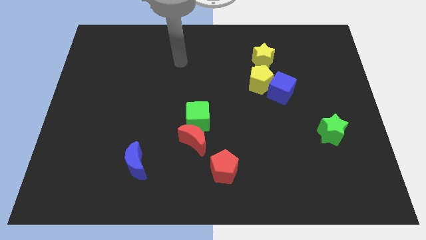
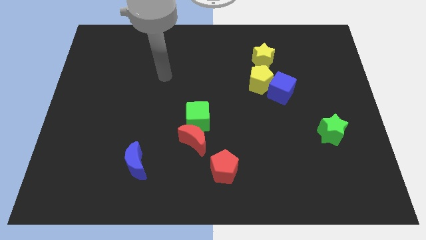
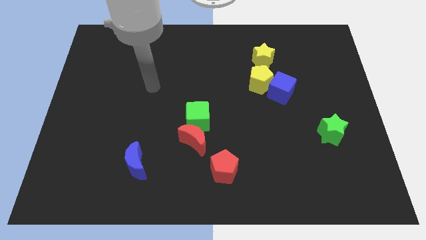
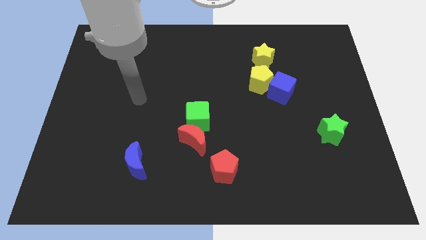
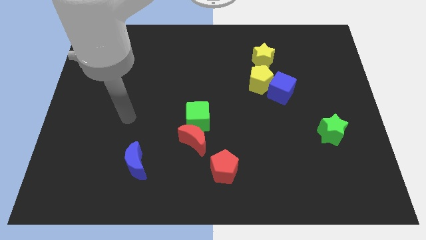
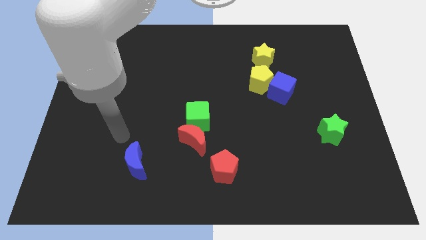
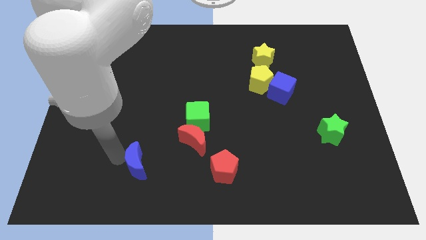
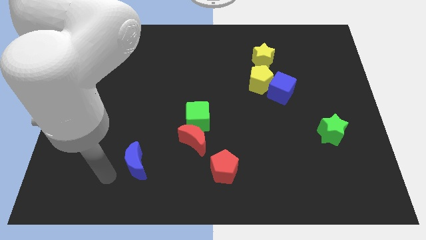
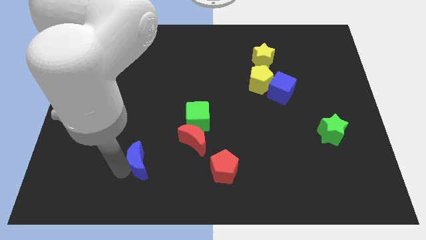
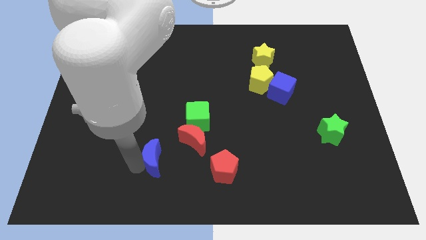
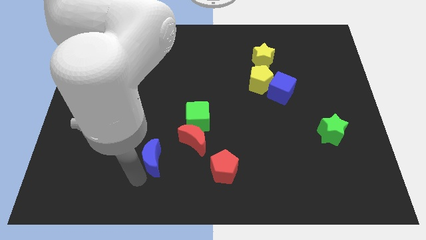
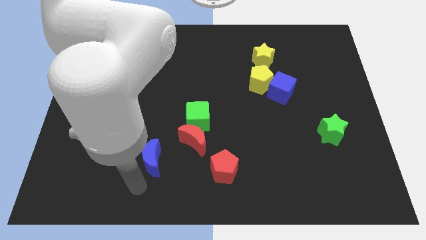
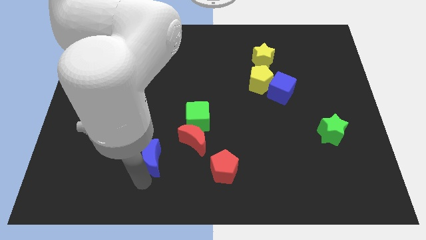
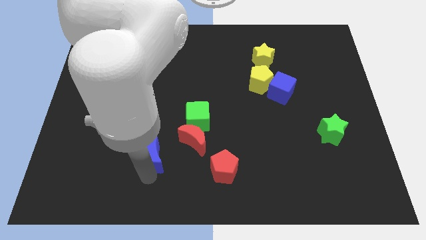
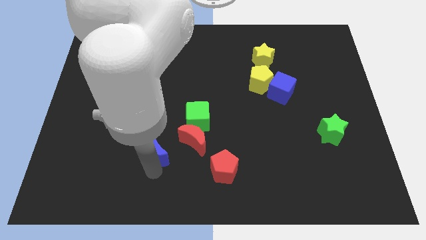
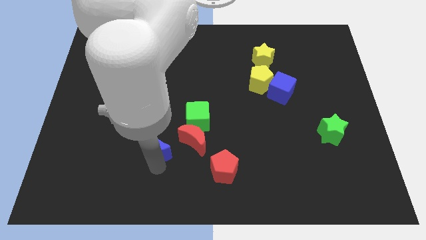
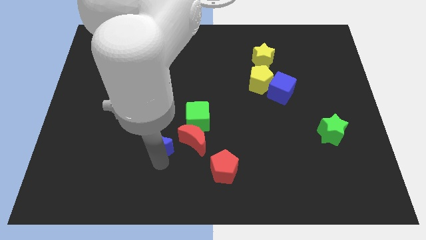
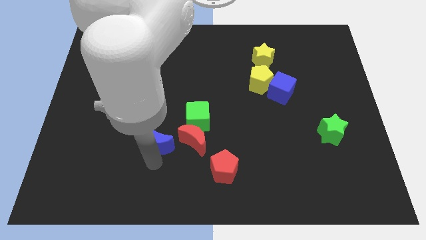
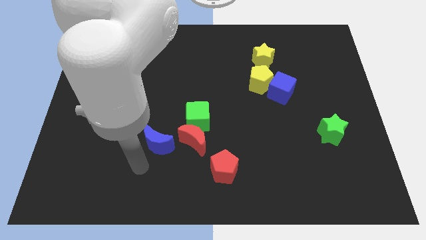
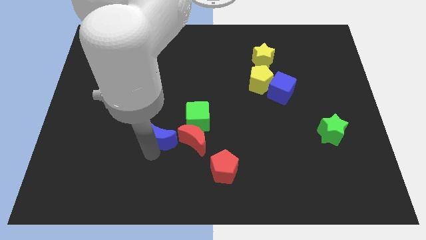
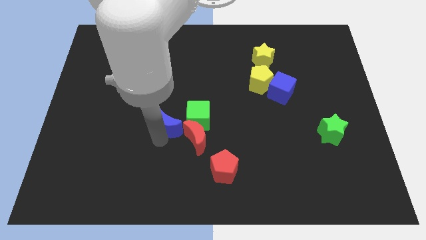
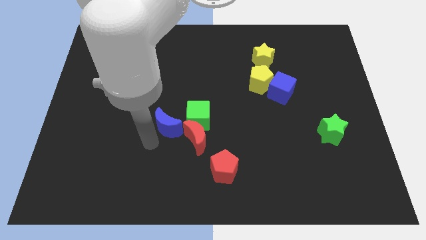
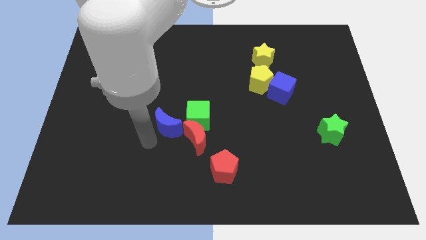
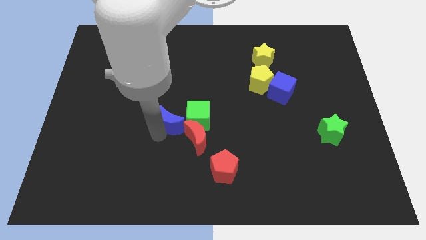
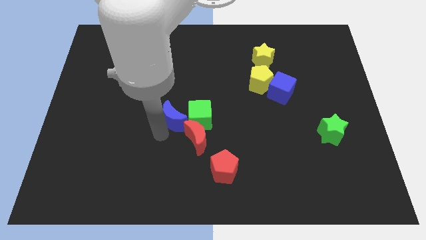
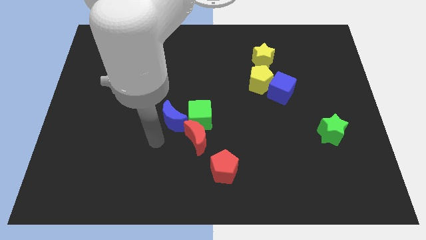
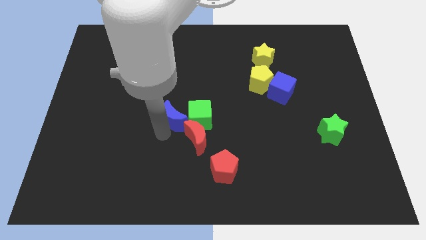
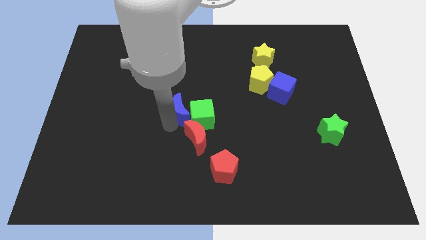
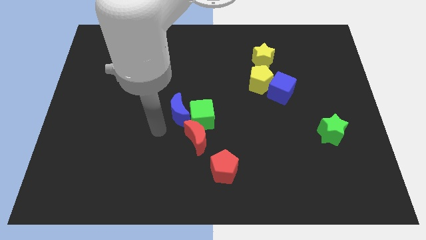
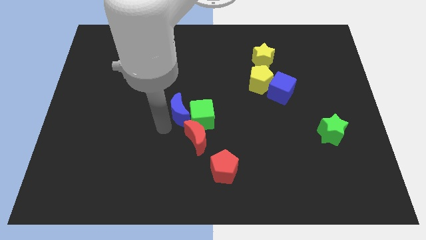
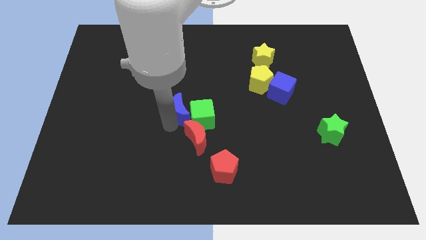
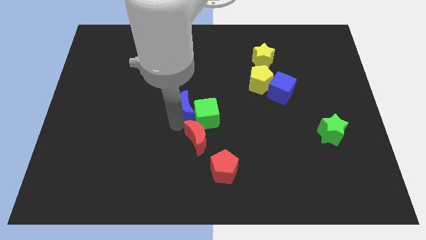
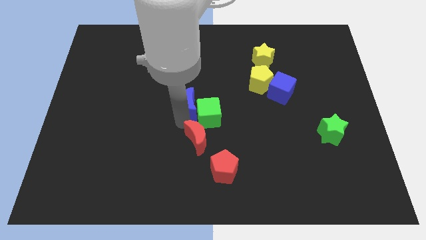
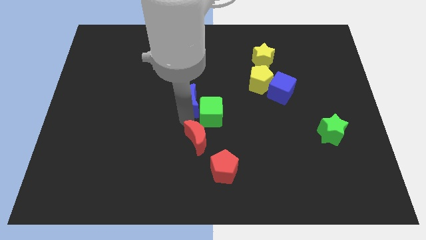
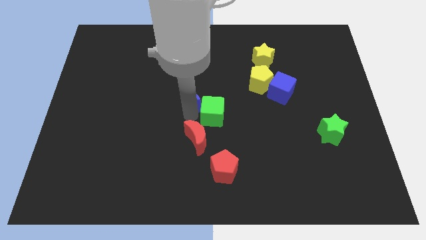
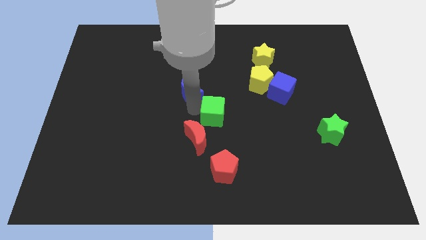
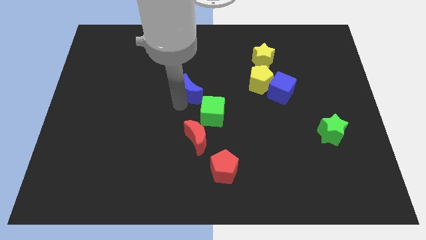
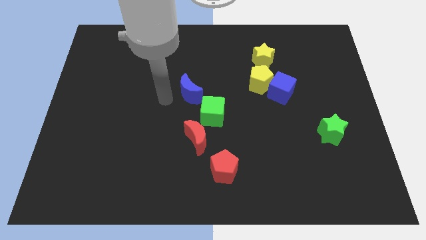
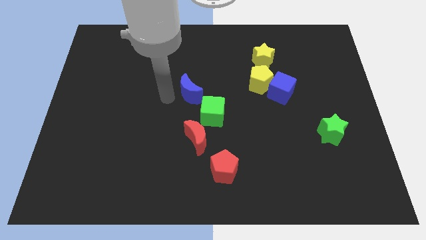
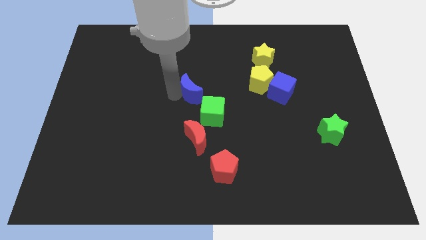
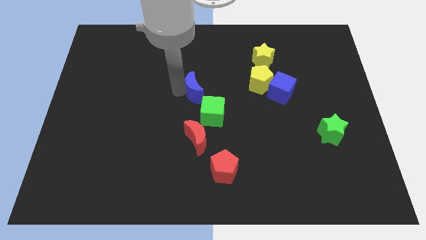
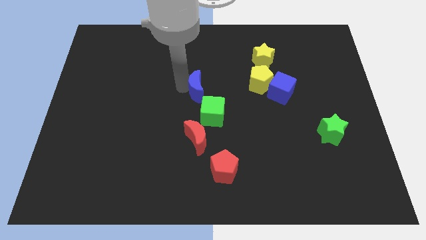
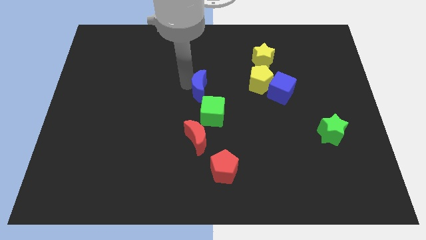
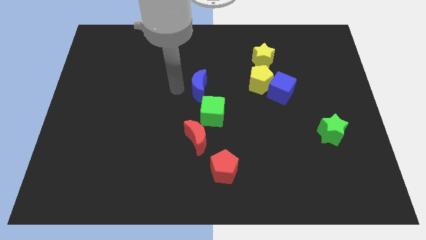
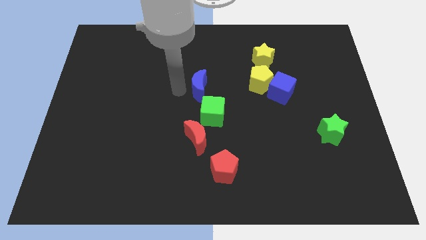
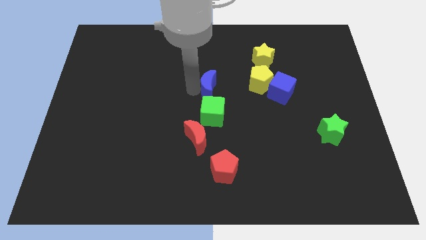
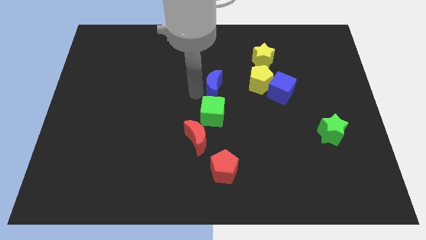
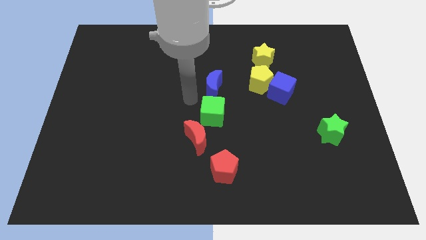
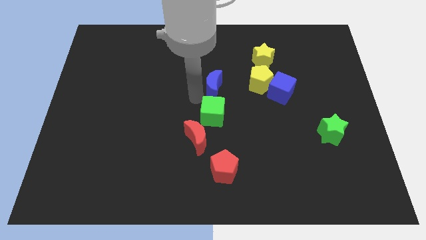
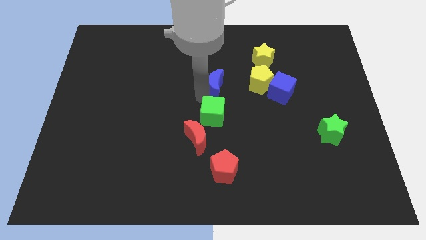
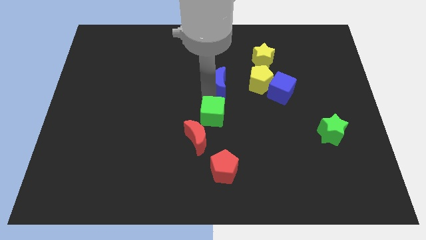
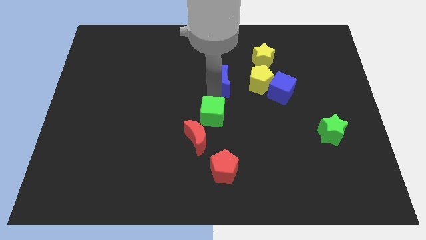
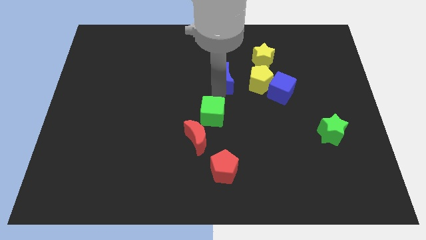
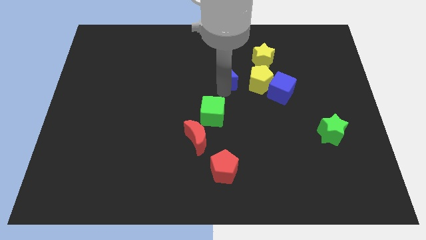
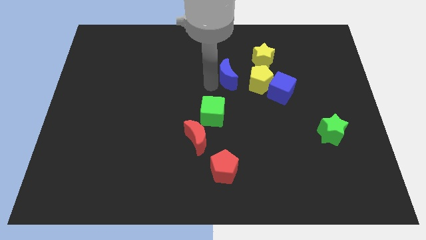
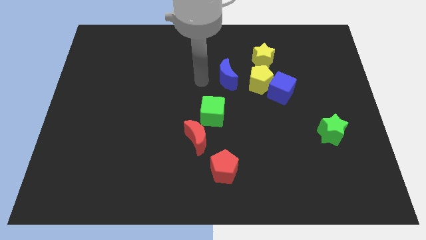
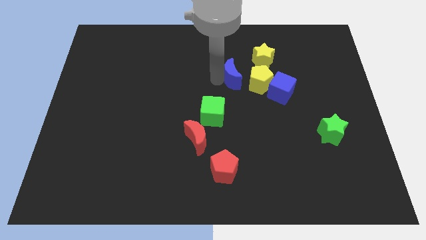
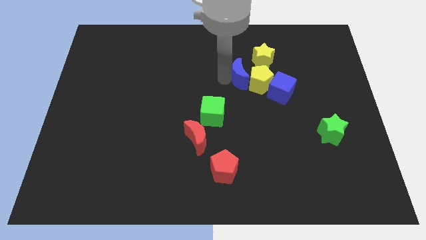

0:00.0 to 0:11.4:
move the blue moon diagonally up and to the left of the blue cube

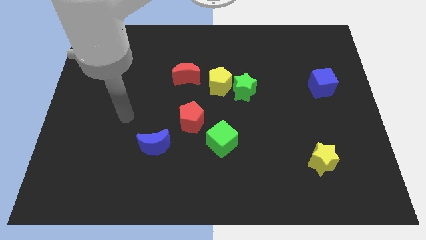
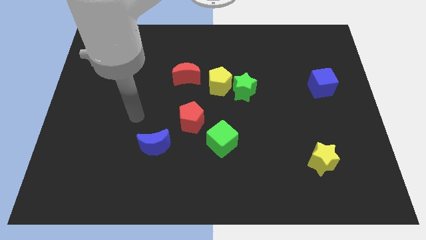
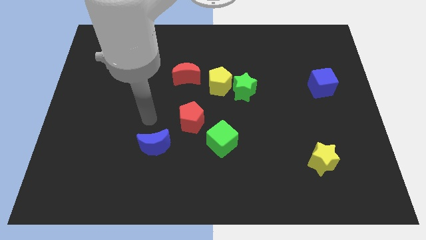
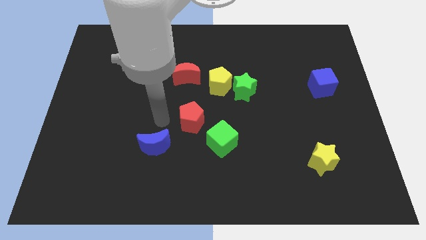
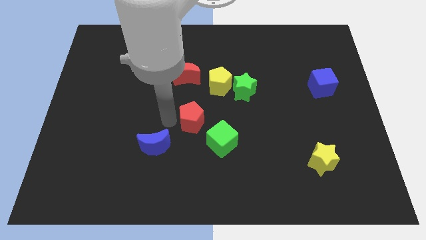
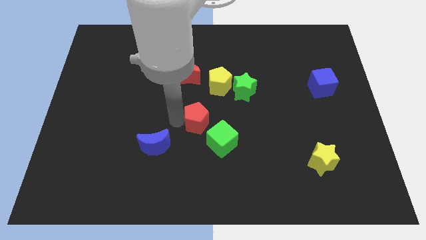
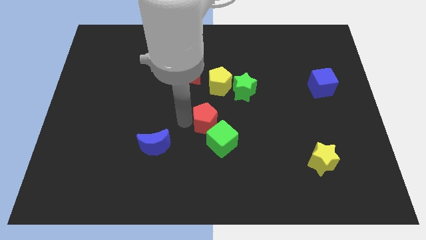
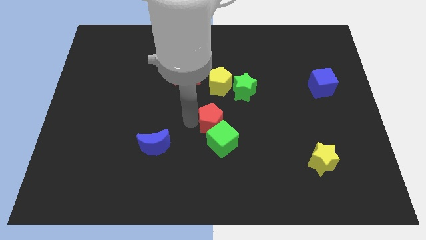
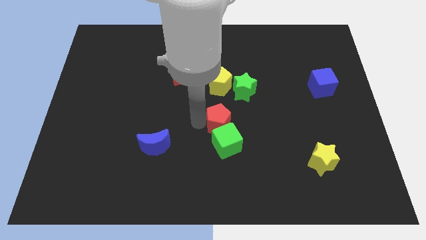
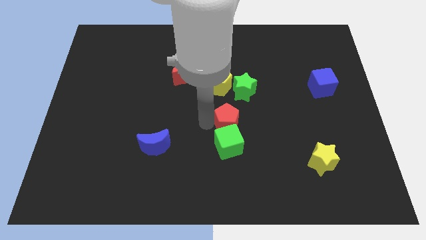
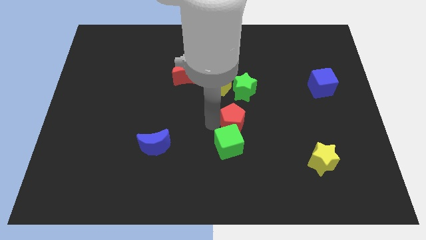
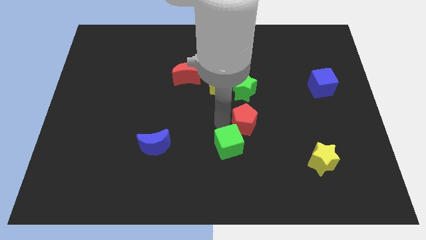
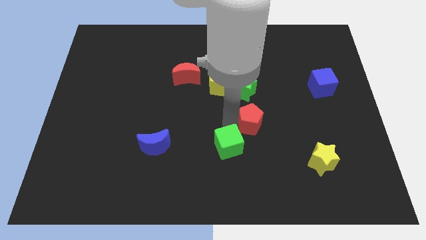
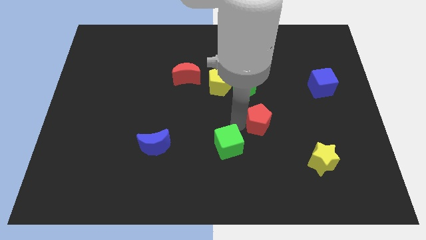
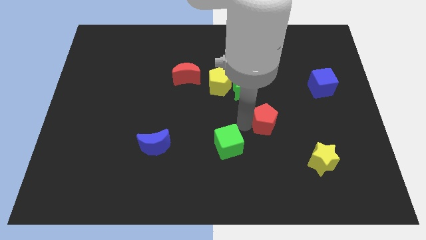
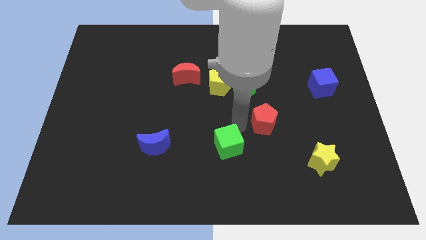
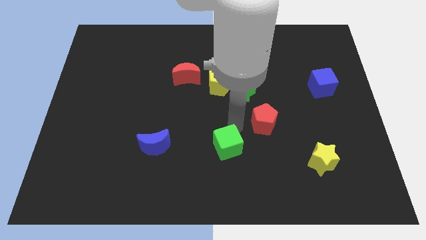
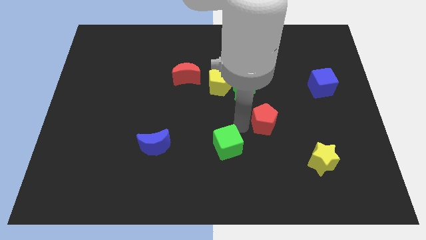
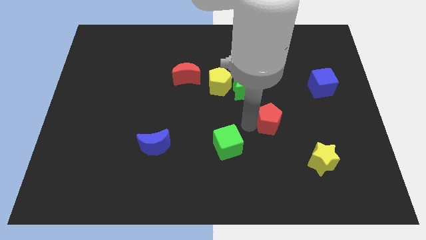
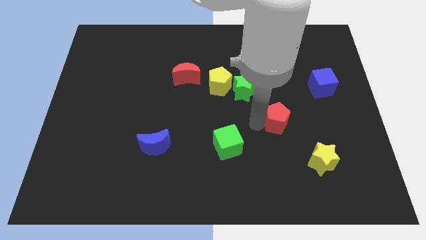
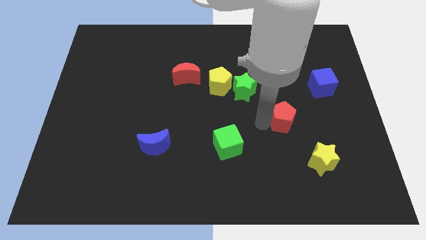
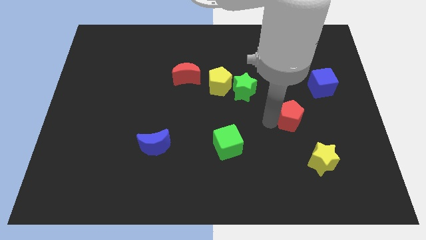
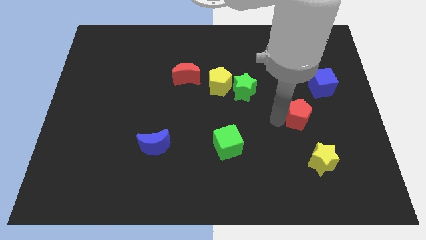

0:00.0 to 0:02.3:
move the red pentagon to the top side of the yellow star
